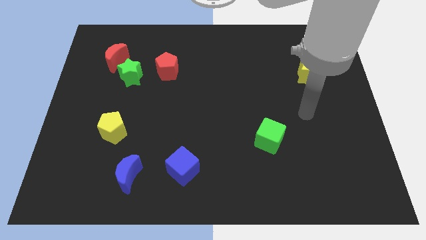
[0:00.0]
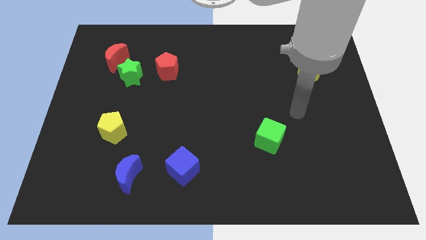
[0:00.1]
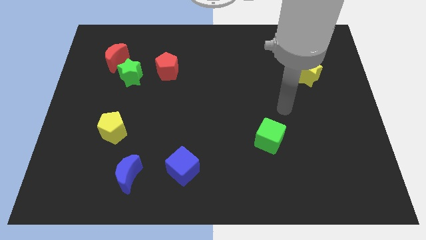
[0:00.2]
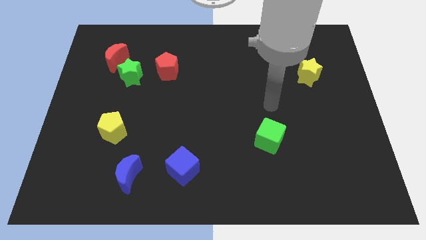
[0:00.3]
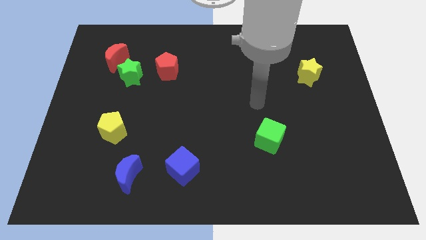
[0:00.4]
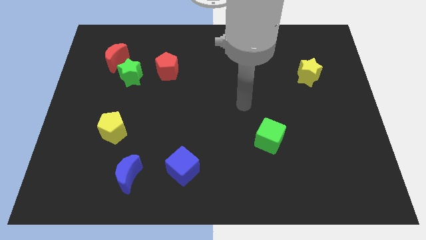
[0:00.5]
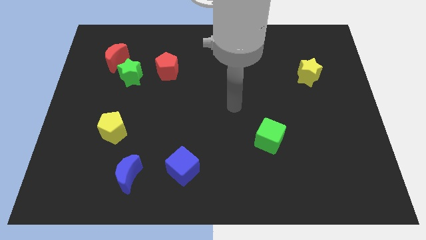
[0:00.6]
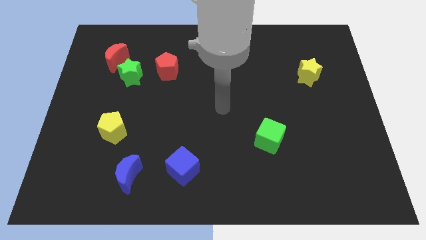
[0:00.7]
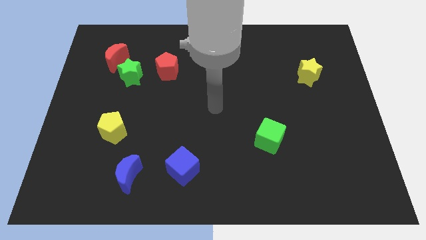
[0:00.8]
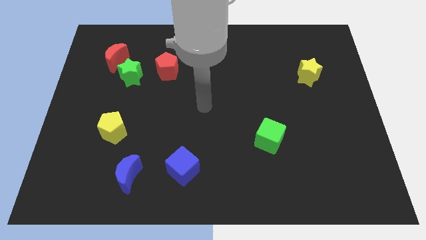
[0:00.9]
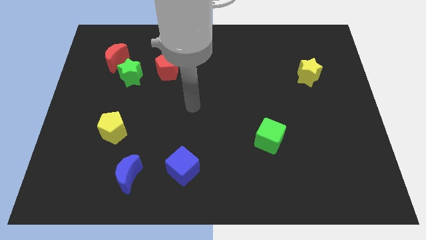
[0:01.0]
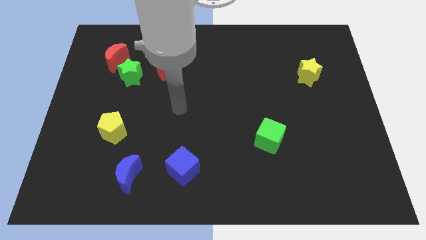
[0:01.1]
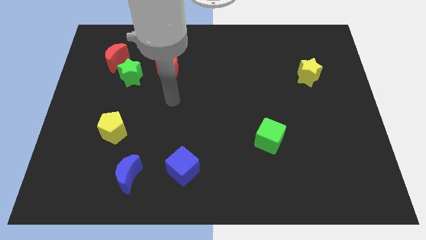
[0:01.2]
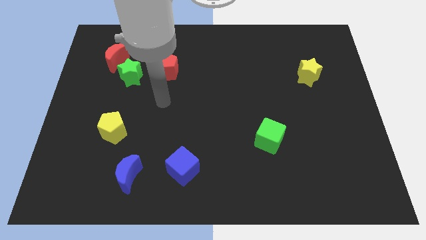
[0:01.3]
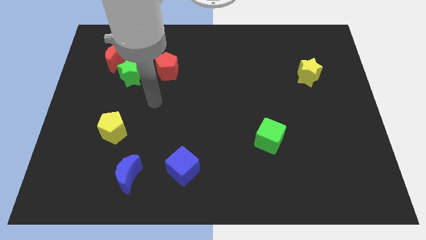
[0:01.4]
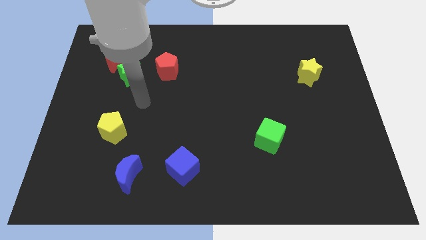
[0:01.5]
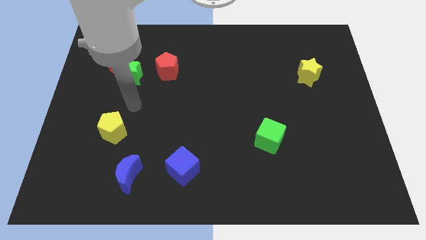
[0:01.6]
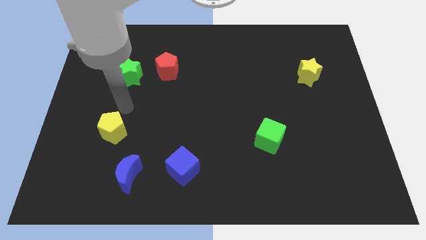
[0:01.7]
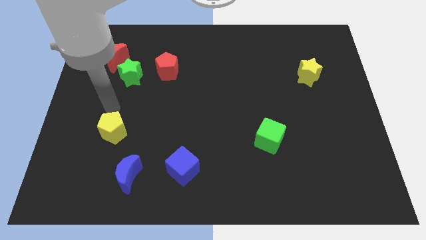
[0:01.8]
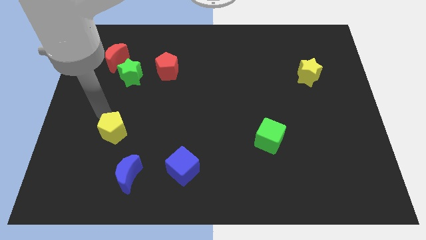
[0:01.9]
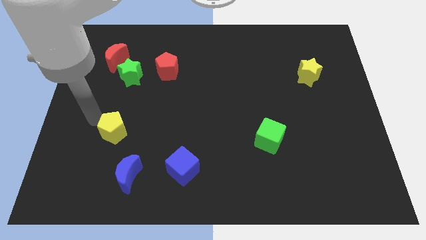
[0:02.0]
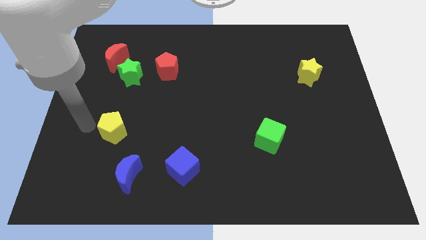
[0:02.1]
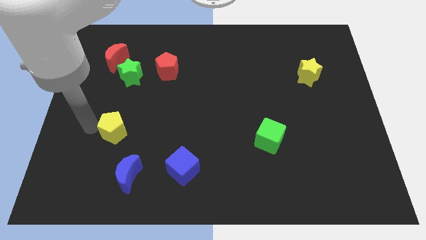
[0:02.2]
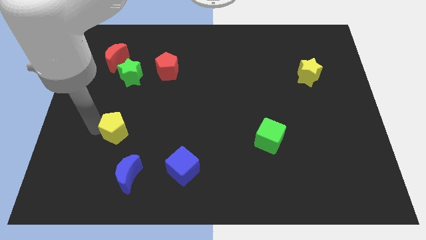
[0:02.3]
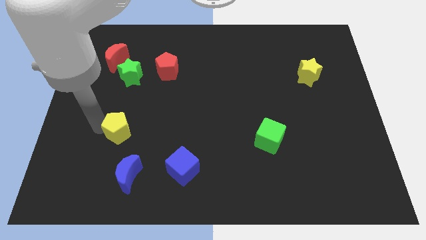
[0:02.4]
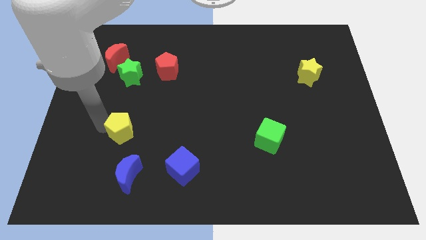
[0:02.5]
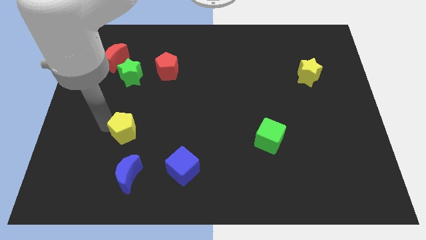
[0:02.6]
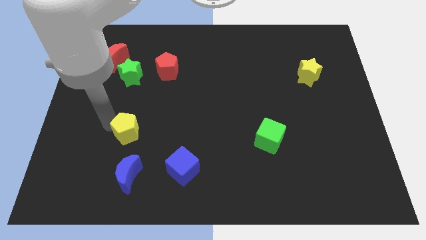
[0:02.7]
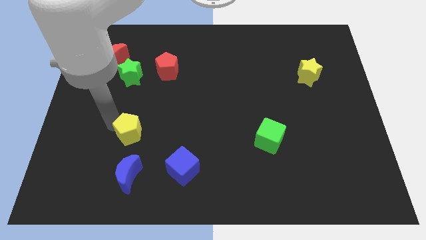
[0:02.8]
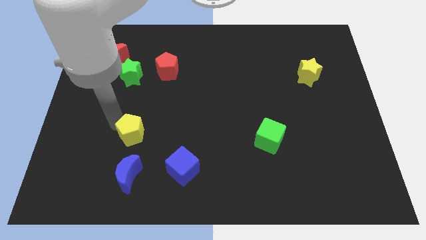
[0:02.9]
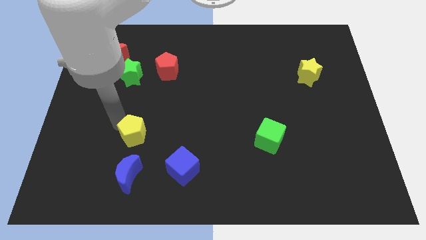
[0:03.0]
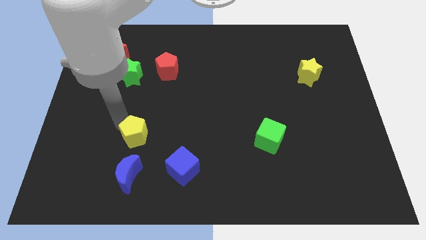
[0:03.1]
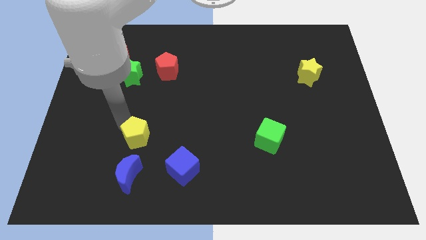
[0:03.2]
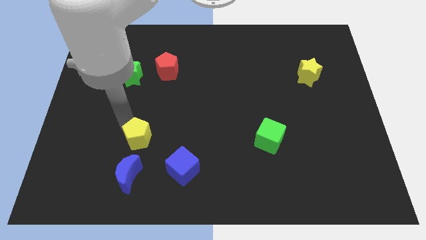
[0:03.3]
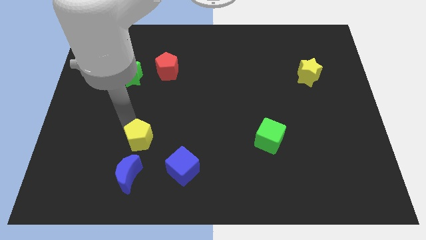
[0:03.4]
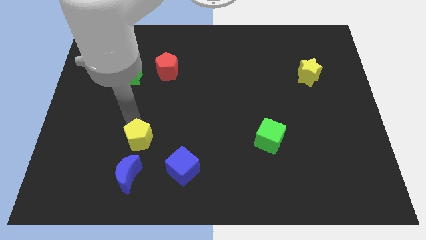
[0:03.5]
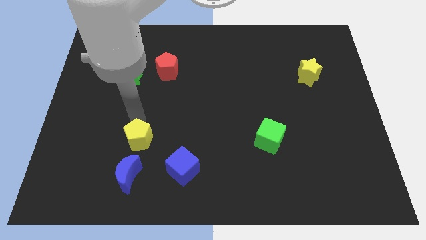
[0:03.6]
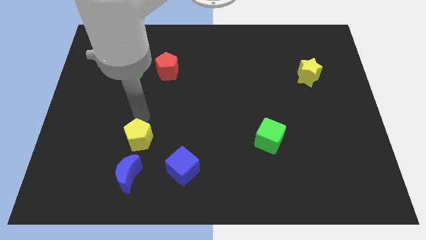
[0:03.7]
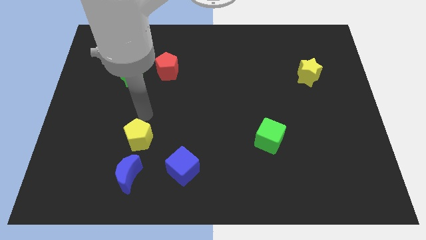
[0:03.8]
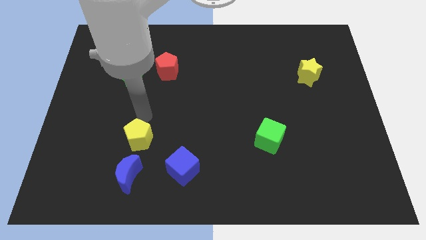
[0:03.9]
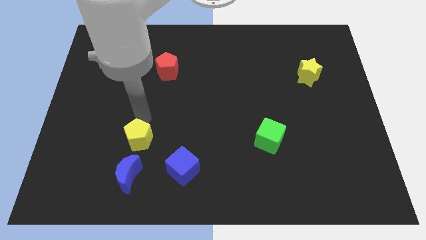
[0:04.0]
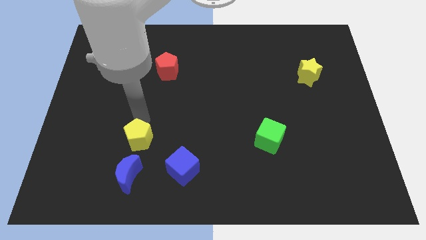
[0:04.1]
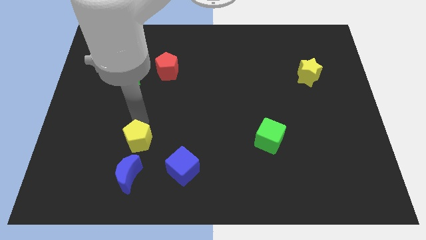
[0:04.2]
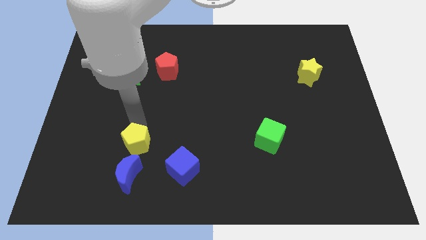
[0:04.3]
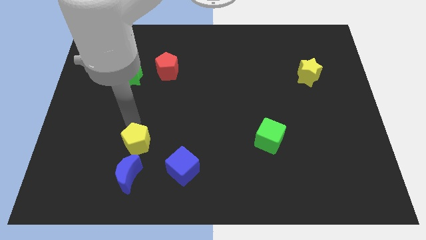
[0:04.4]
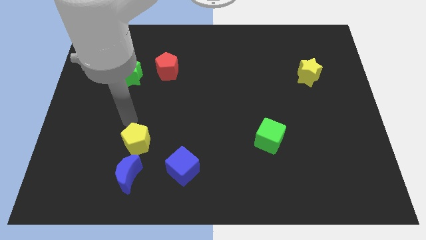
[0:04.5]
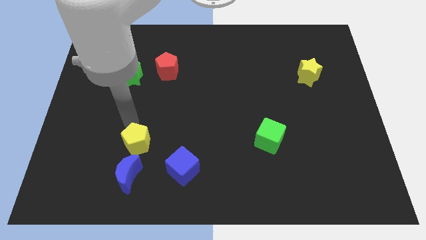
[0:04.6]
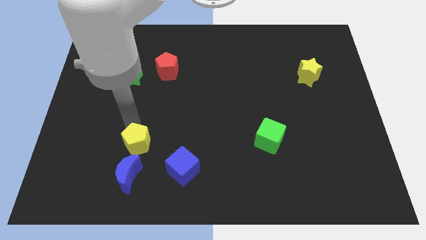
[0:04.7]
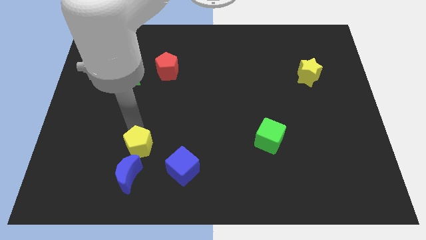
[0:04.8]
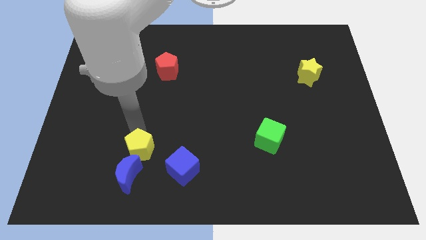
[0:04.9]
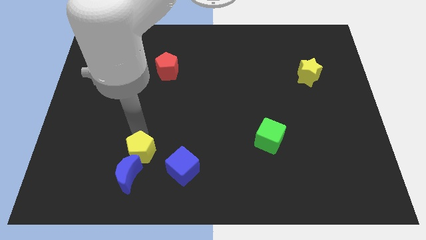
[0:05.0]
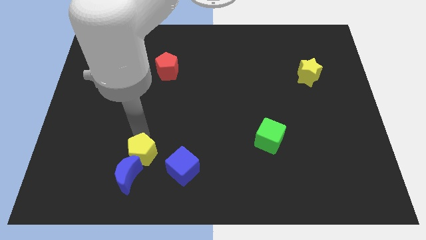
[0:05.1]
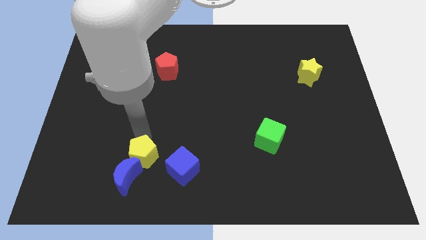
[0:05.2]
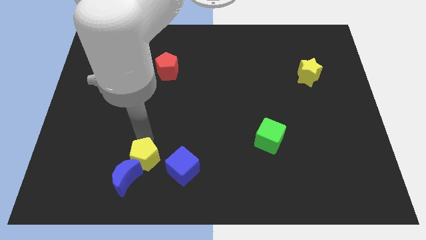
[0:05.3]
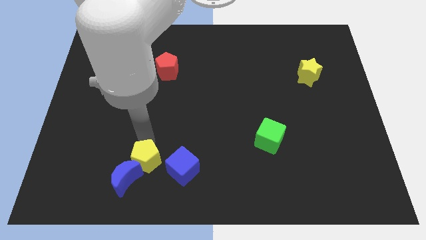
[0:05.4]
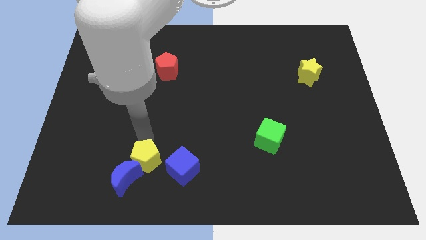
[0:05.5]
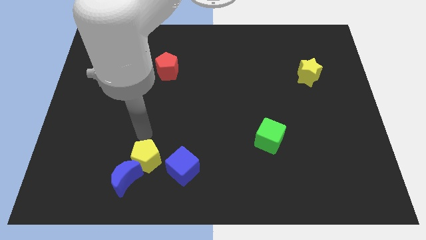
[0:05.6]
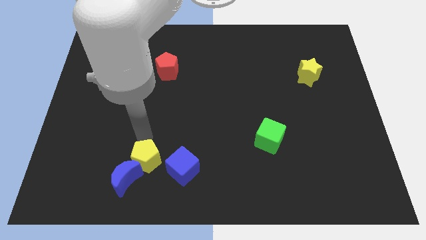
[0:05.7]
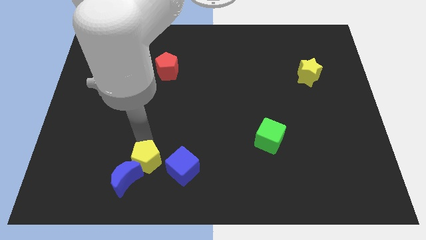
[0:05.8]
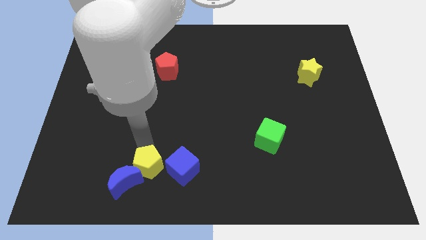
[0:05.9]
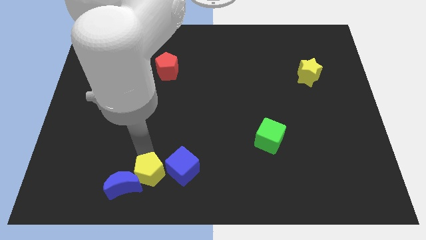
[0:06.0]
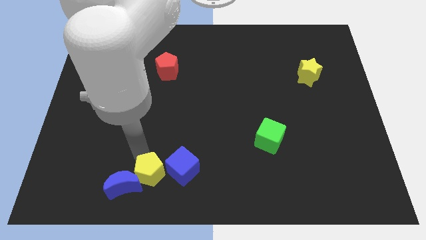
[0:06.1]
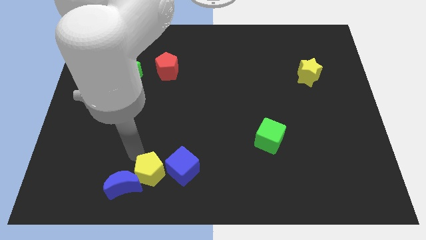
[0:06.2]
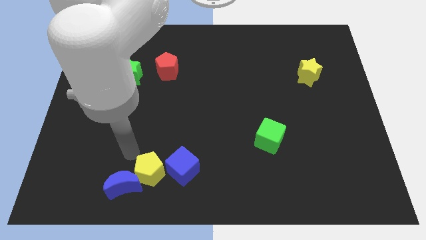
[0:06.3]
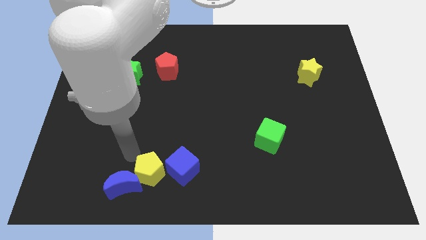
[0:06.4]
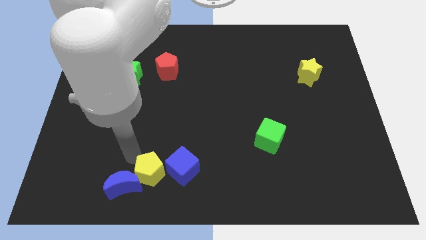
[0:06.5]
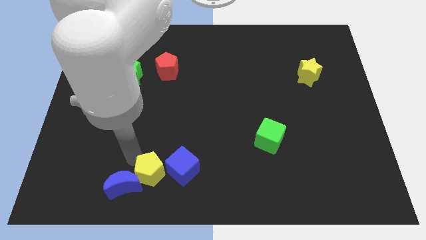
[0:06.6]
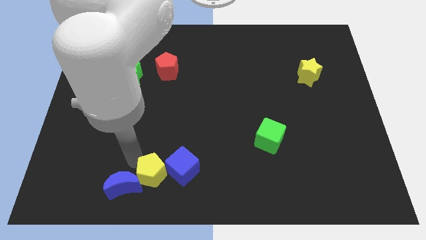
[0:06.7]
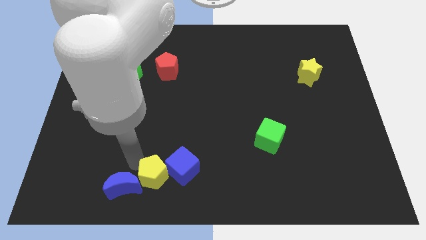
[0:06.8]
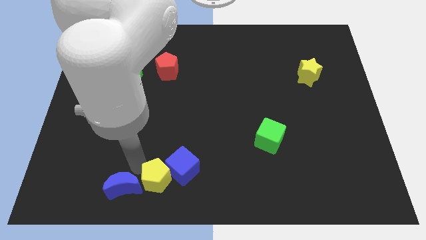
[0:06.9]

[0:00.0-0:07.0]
slide the yellow pentagon to the bottom

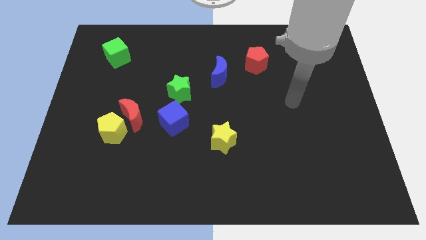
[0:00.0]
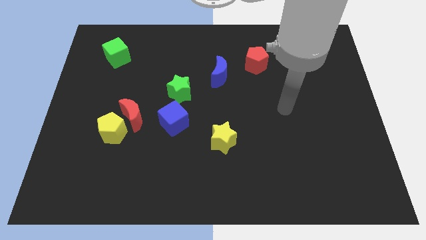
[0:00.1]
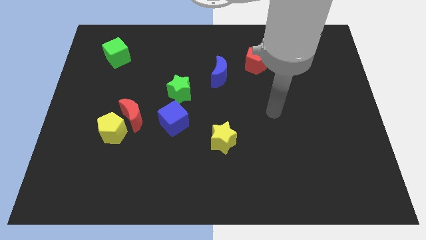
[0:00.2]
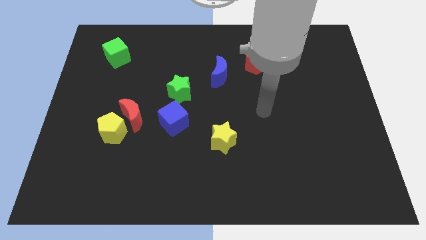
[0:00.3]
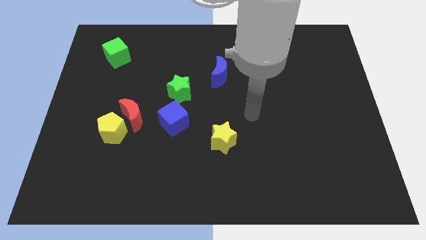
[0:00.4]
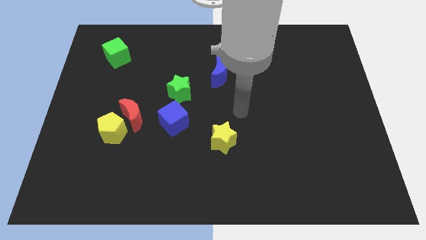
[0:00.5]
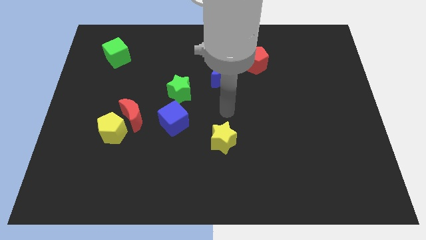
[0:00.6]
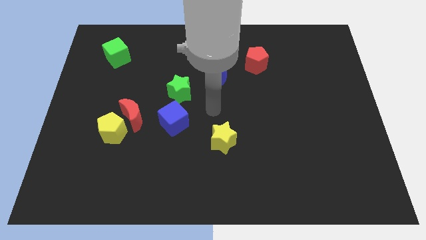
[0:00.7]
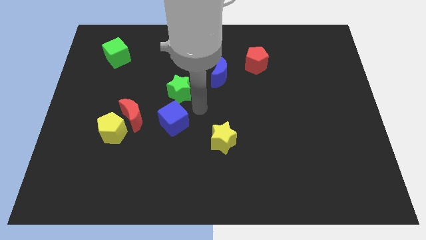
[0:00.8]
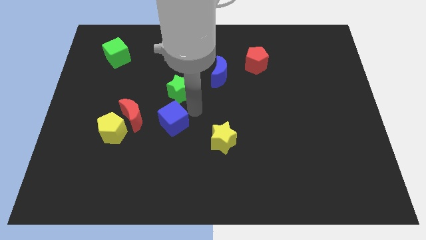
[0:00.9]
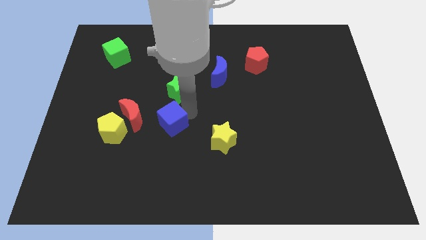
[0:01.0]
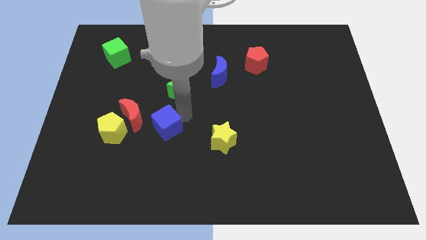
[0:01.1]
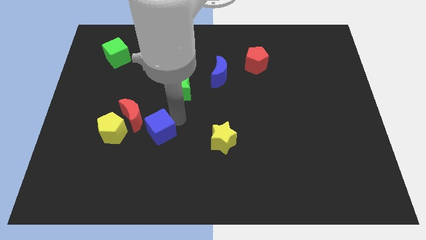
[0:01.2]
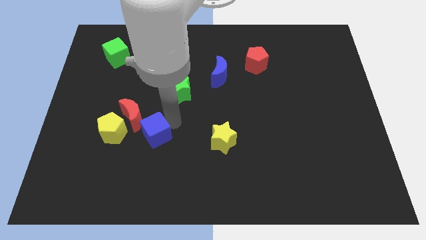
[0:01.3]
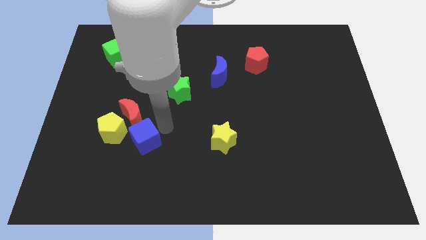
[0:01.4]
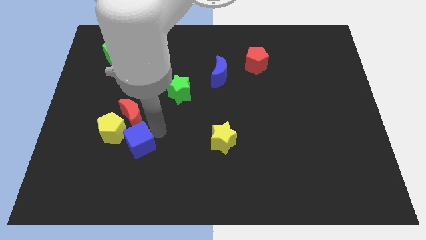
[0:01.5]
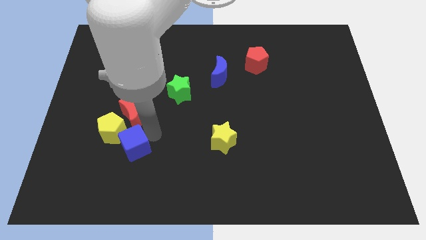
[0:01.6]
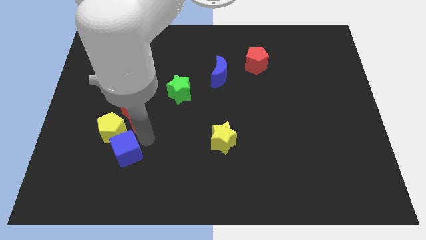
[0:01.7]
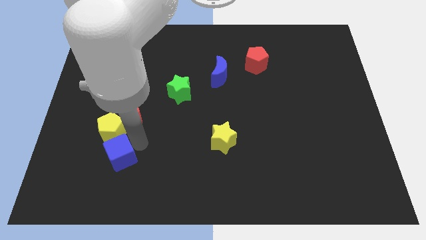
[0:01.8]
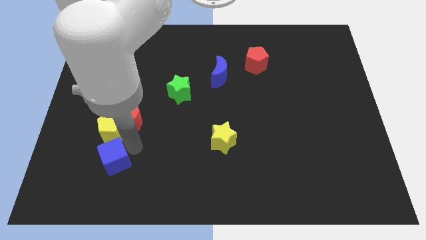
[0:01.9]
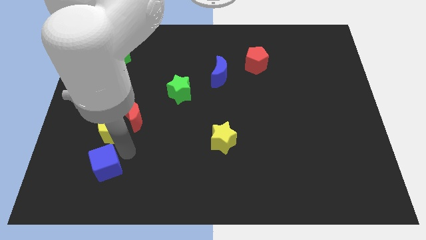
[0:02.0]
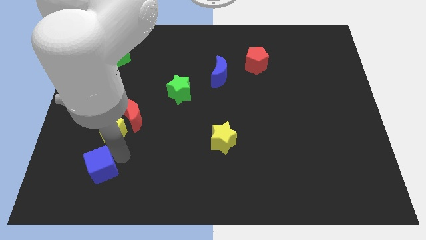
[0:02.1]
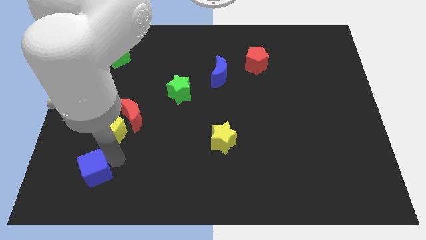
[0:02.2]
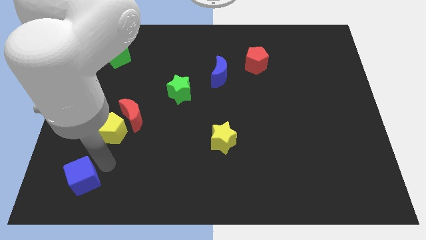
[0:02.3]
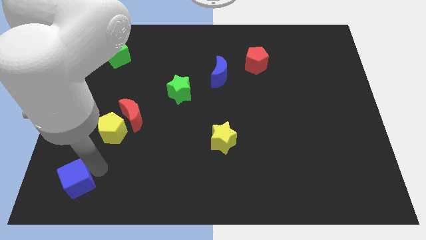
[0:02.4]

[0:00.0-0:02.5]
slide the blue cube to the bottom left
